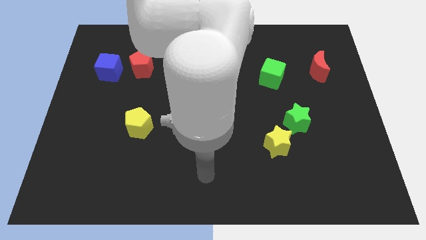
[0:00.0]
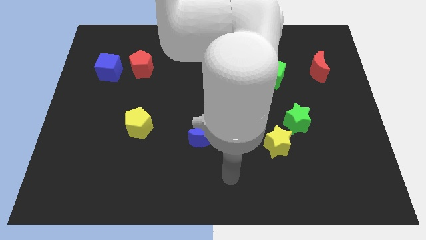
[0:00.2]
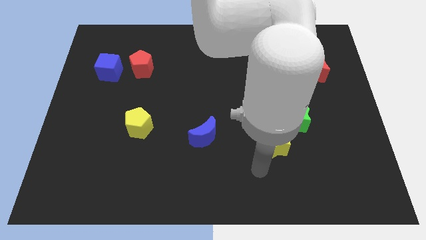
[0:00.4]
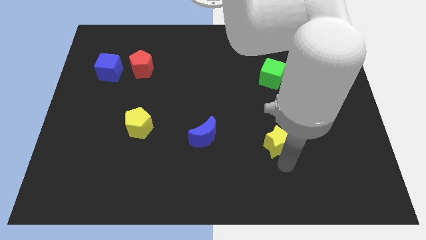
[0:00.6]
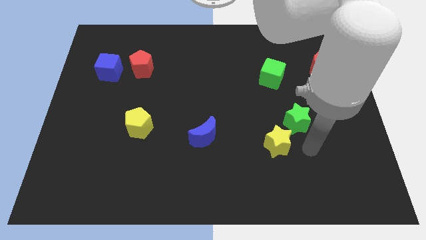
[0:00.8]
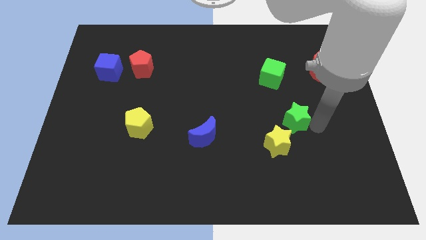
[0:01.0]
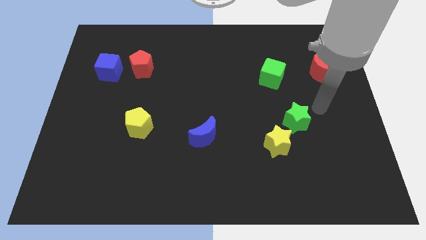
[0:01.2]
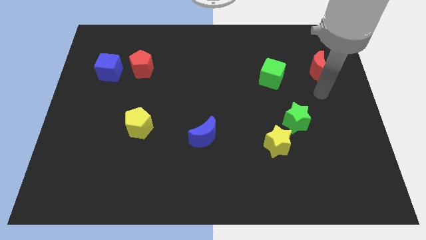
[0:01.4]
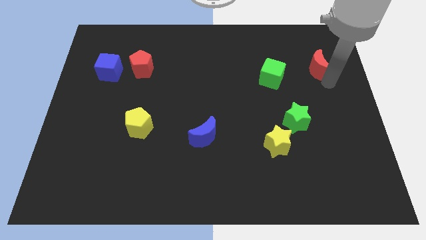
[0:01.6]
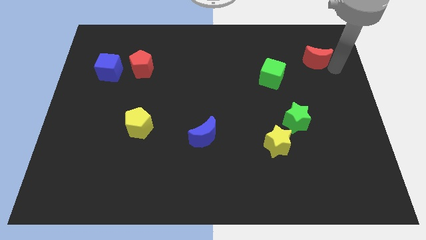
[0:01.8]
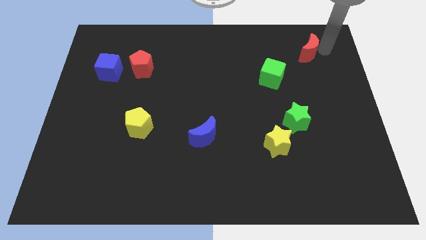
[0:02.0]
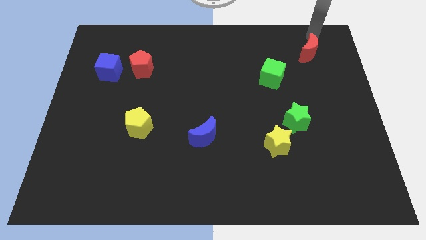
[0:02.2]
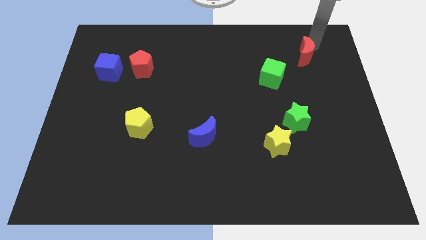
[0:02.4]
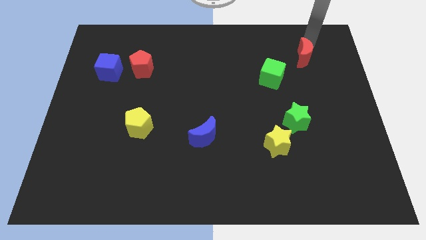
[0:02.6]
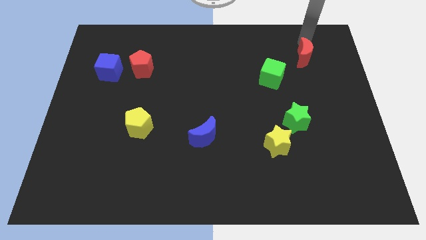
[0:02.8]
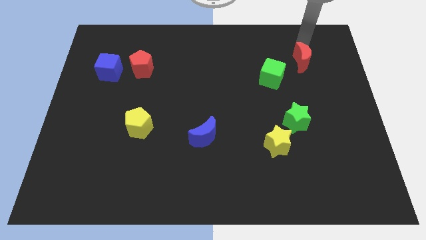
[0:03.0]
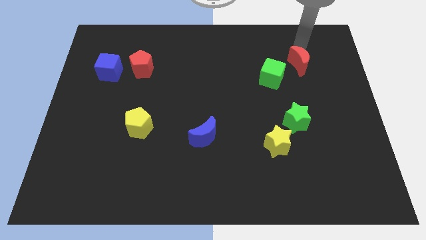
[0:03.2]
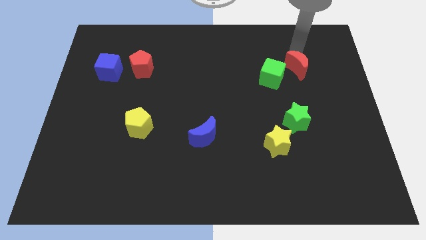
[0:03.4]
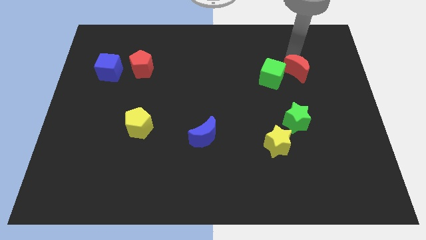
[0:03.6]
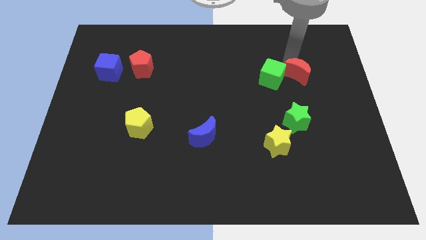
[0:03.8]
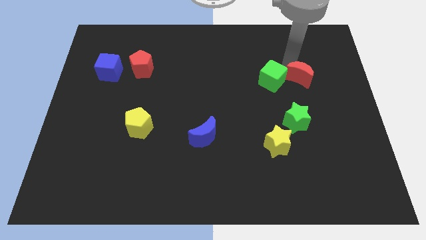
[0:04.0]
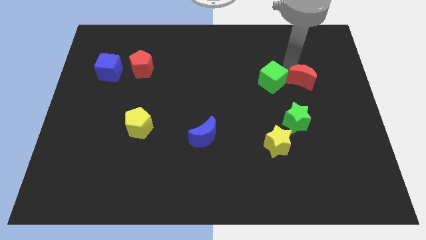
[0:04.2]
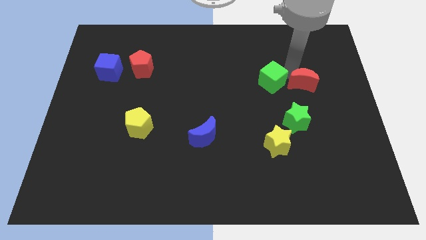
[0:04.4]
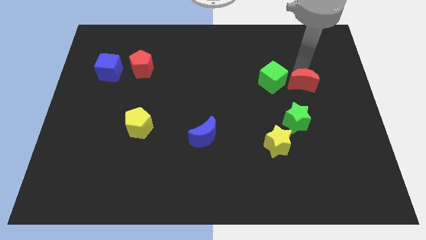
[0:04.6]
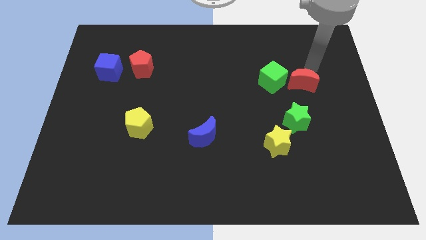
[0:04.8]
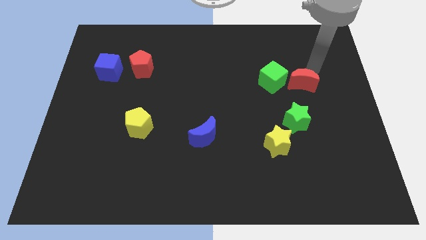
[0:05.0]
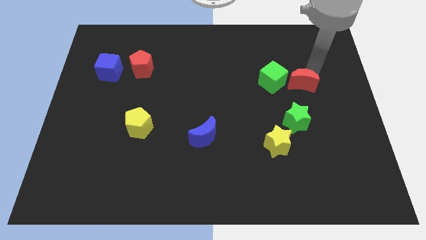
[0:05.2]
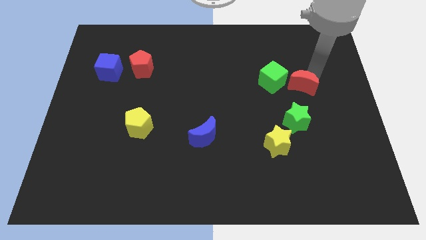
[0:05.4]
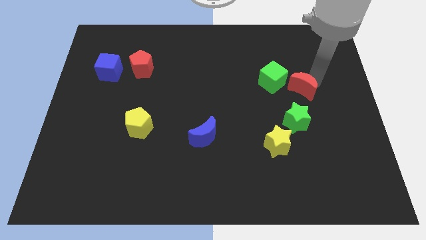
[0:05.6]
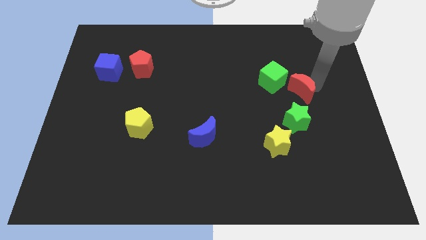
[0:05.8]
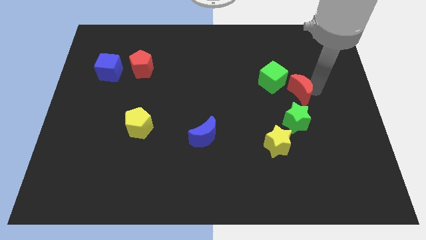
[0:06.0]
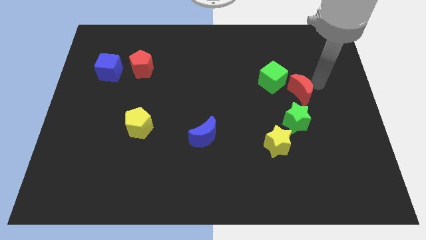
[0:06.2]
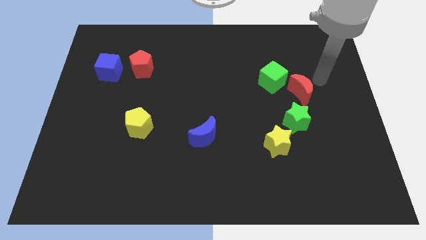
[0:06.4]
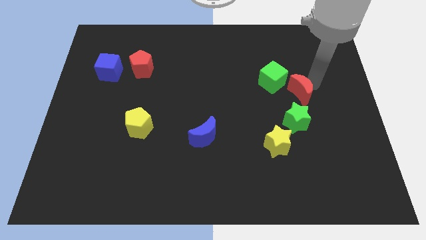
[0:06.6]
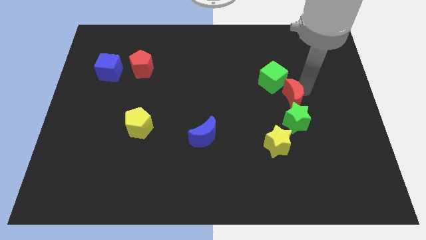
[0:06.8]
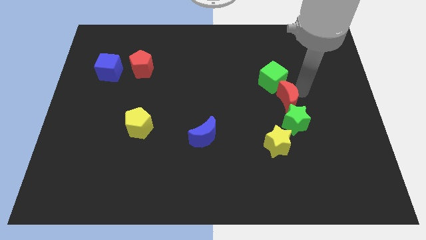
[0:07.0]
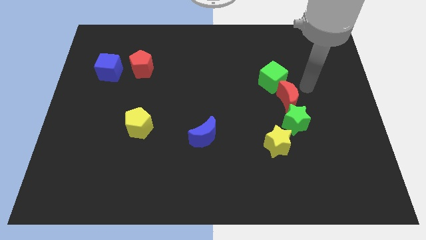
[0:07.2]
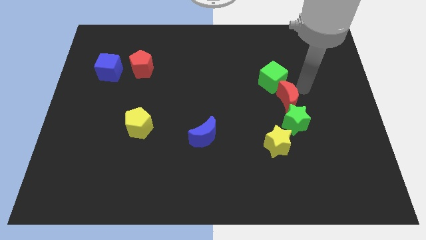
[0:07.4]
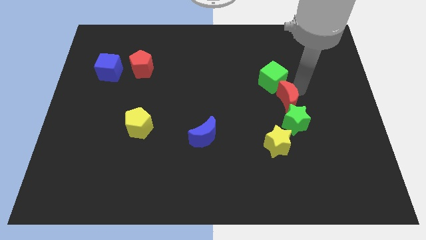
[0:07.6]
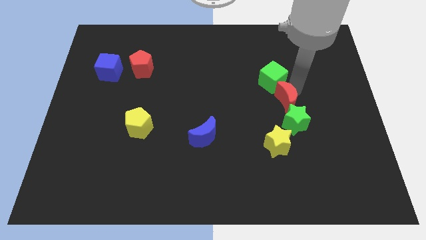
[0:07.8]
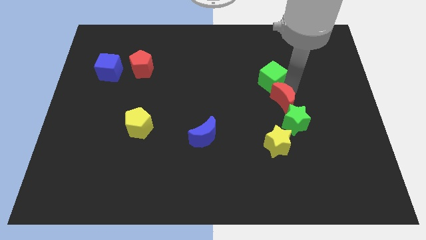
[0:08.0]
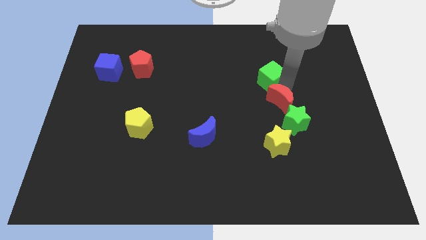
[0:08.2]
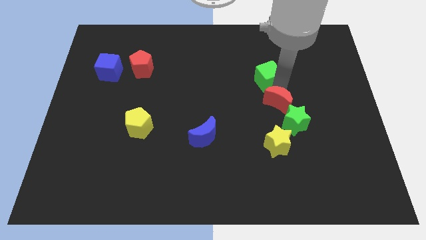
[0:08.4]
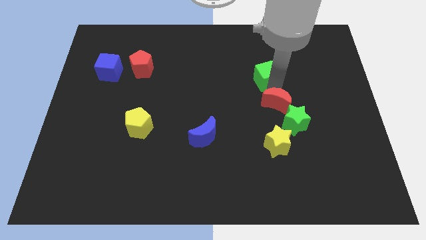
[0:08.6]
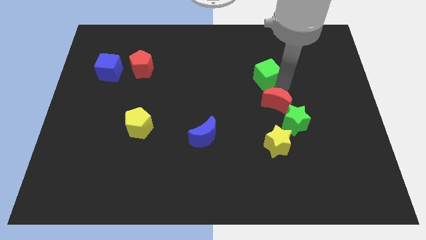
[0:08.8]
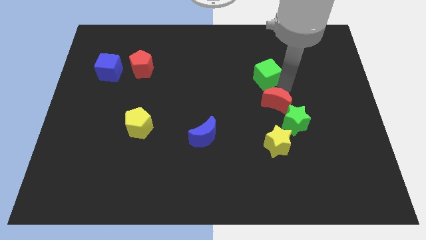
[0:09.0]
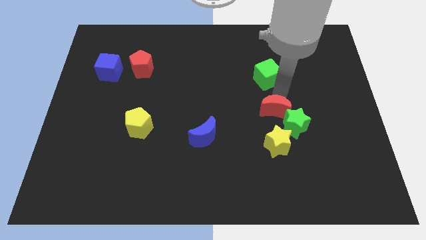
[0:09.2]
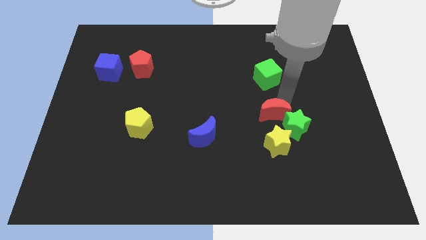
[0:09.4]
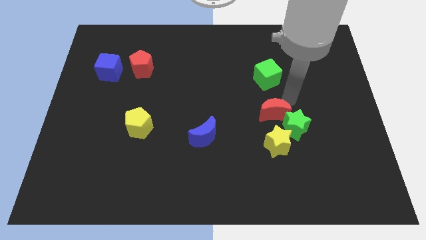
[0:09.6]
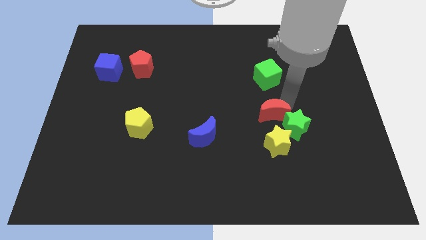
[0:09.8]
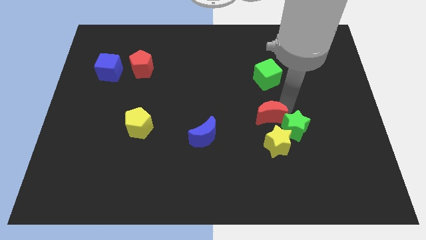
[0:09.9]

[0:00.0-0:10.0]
move the red moon downwards and to the left diagonally

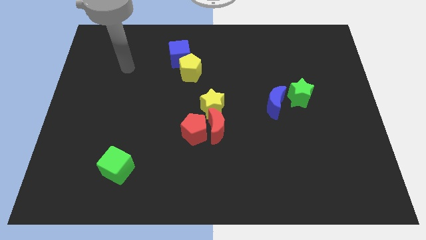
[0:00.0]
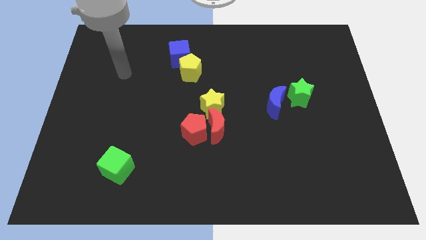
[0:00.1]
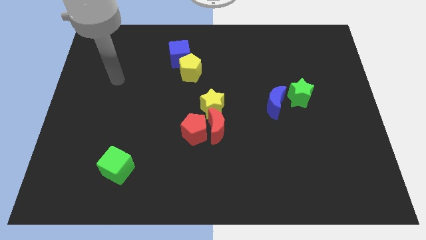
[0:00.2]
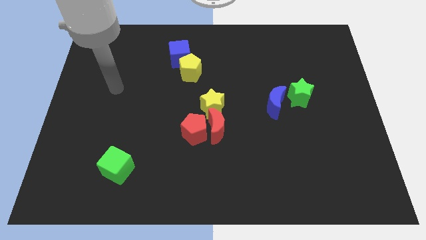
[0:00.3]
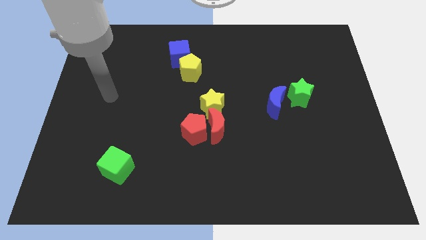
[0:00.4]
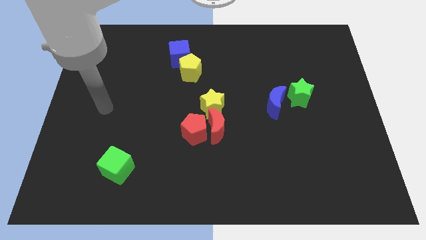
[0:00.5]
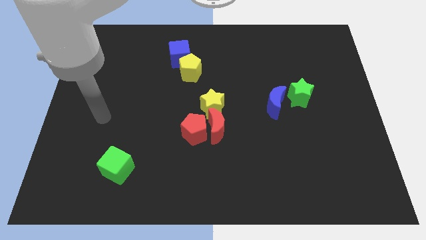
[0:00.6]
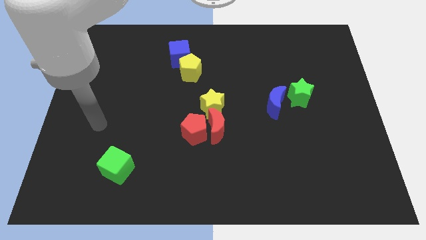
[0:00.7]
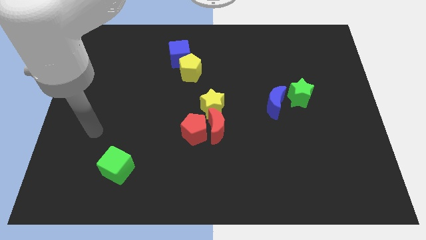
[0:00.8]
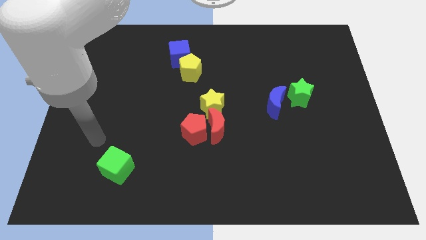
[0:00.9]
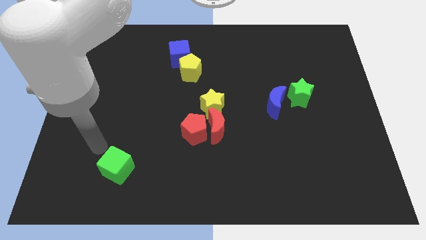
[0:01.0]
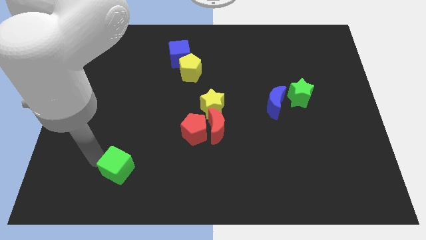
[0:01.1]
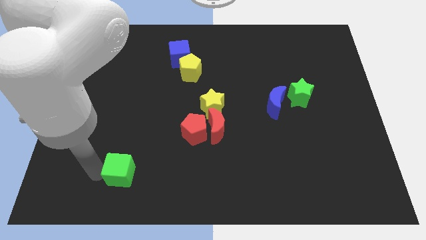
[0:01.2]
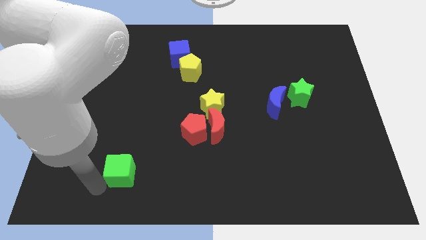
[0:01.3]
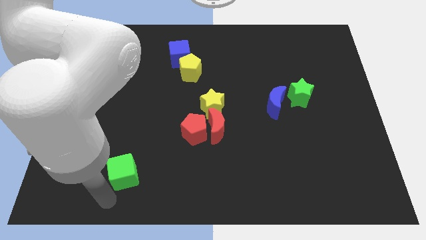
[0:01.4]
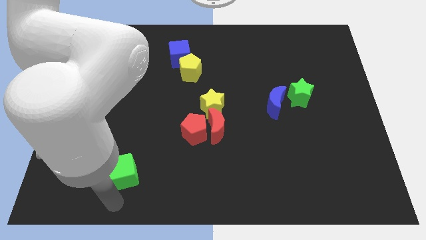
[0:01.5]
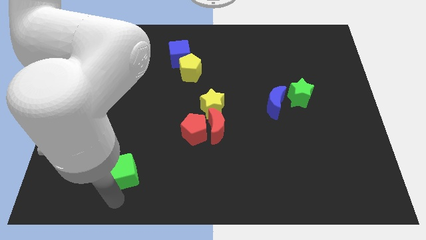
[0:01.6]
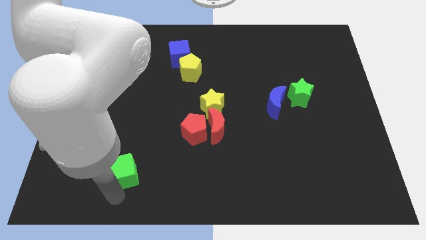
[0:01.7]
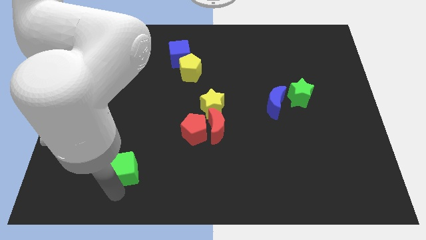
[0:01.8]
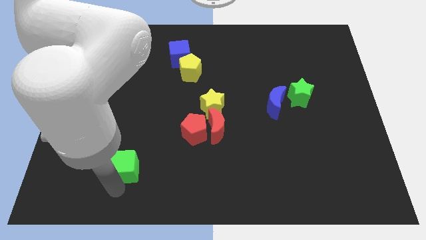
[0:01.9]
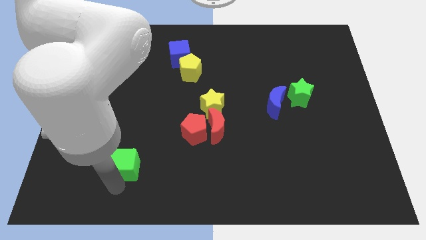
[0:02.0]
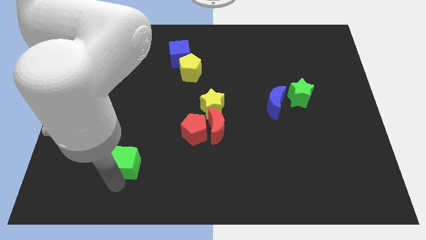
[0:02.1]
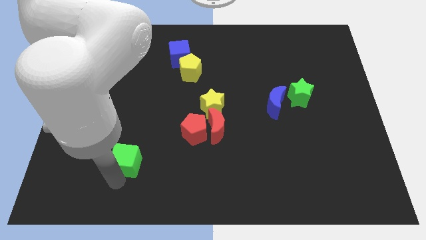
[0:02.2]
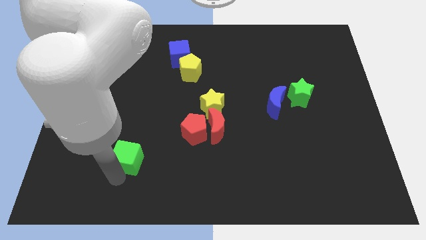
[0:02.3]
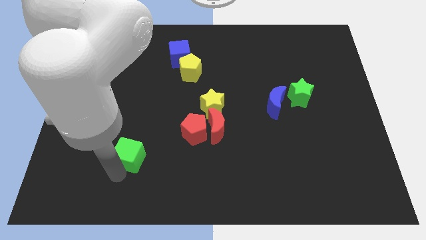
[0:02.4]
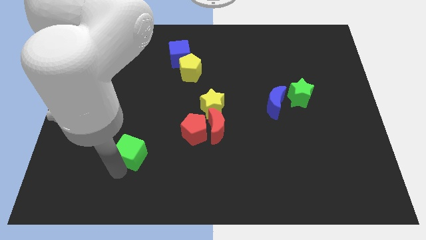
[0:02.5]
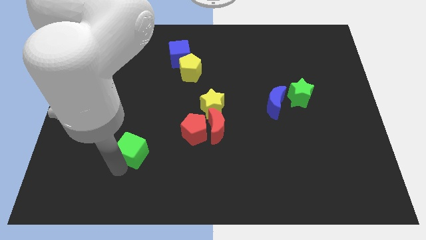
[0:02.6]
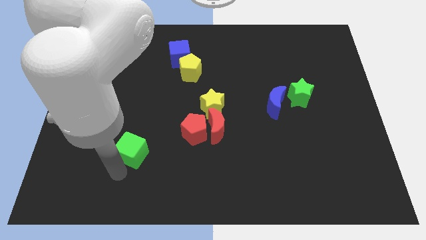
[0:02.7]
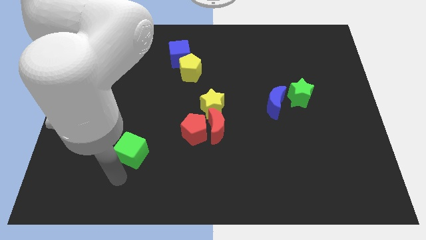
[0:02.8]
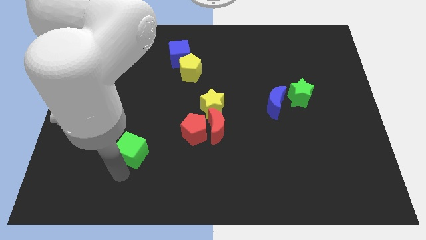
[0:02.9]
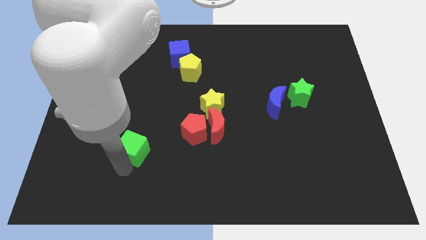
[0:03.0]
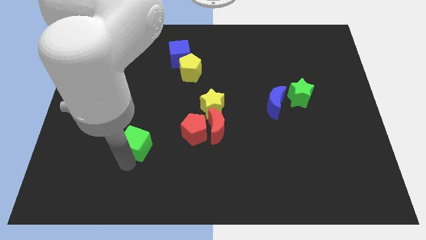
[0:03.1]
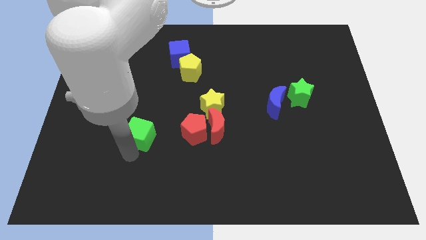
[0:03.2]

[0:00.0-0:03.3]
slightly slide the green cube upwards and to the right diagonally

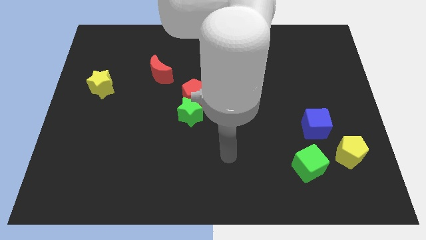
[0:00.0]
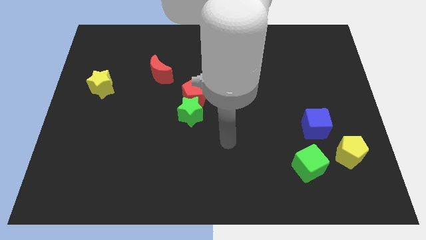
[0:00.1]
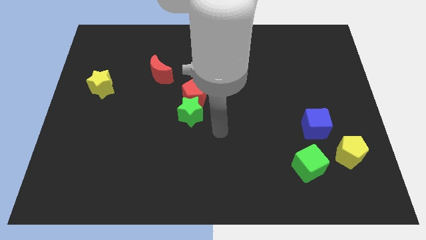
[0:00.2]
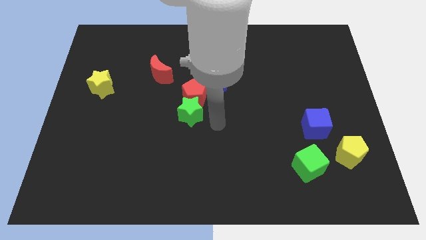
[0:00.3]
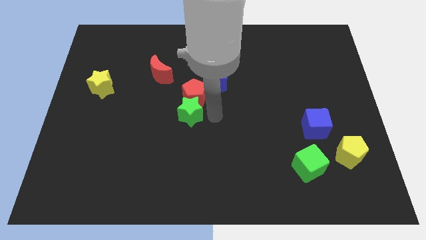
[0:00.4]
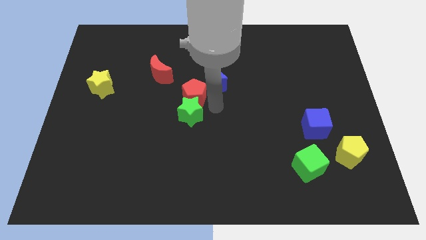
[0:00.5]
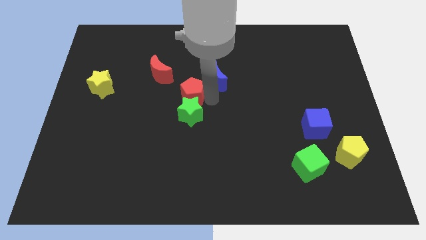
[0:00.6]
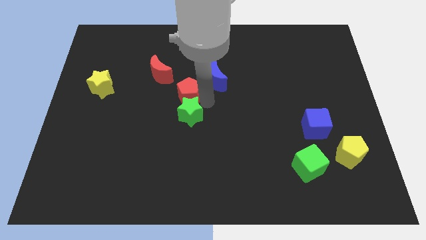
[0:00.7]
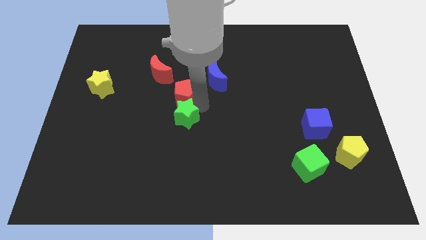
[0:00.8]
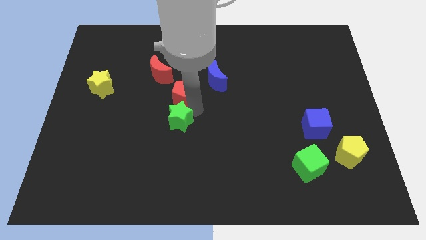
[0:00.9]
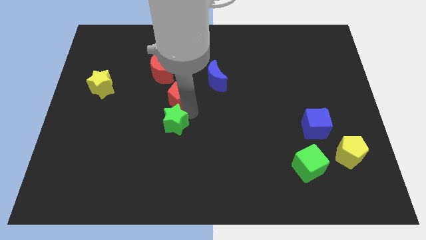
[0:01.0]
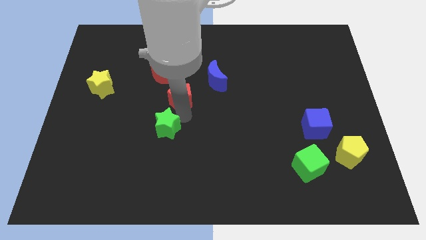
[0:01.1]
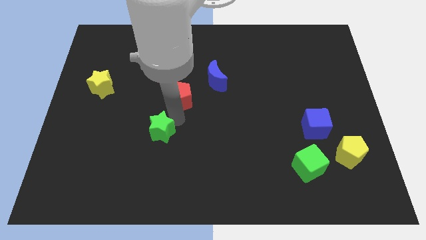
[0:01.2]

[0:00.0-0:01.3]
slightly slide the green star diagonally downwards and to the left
